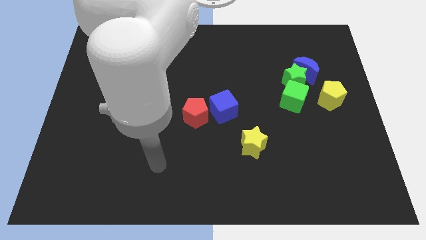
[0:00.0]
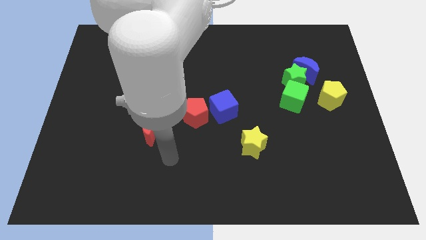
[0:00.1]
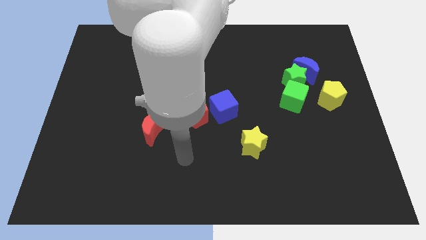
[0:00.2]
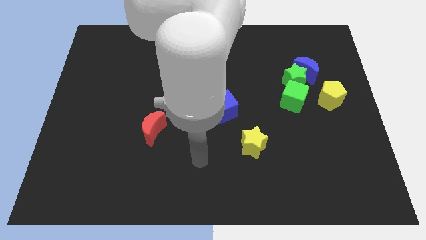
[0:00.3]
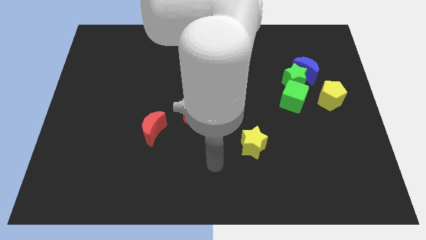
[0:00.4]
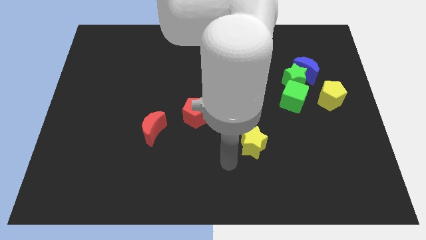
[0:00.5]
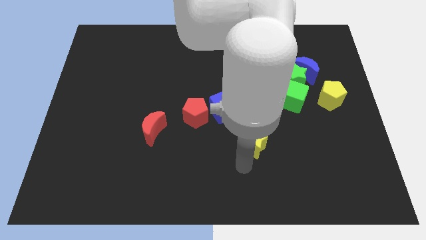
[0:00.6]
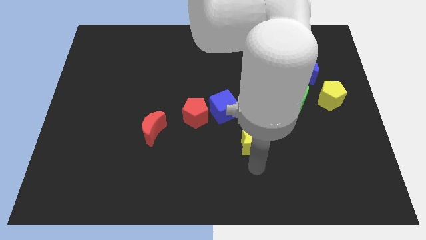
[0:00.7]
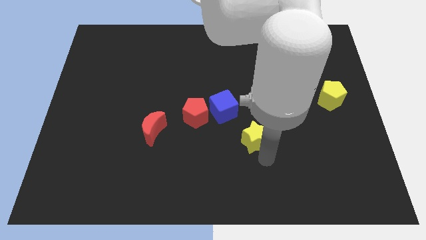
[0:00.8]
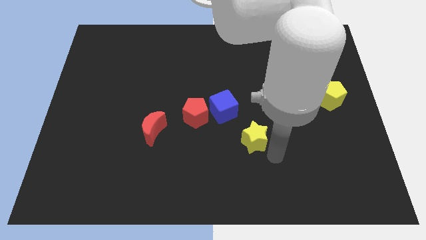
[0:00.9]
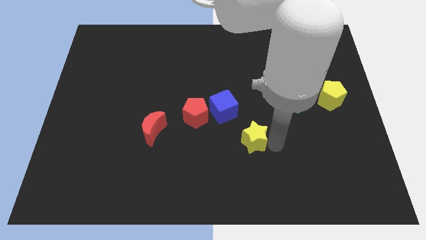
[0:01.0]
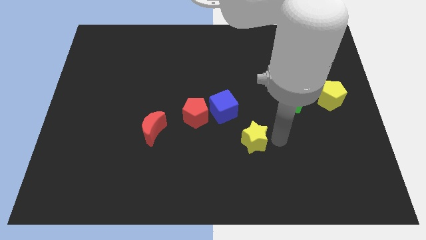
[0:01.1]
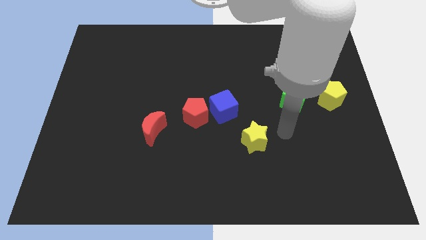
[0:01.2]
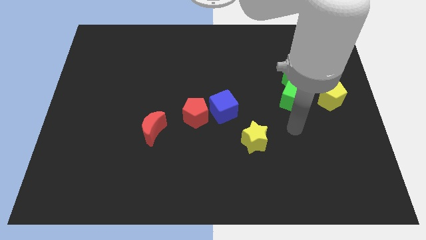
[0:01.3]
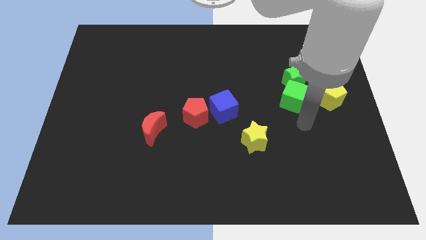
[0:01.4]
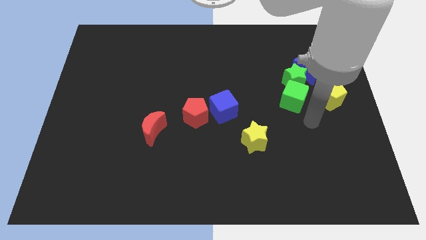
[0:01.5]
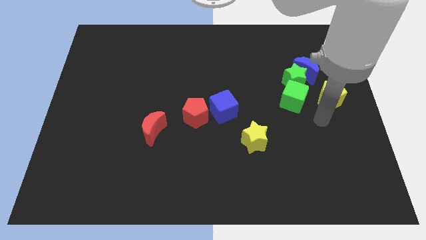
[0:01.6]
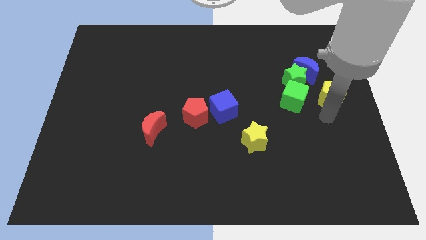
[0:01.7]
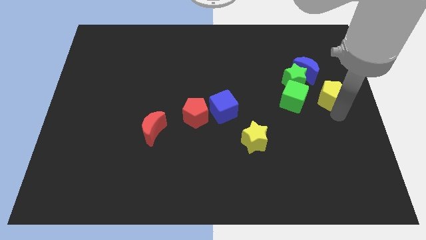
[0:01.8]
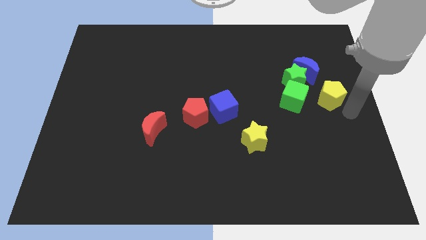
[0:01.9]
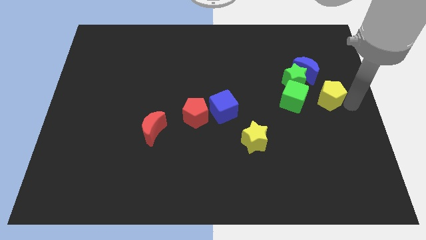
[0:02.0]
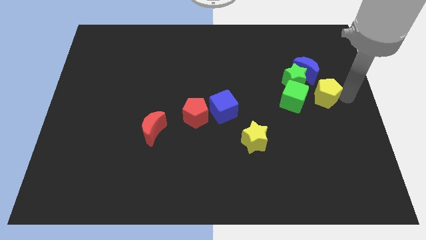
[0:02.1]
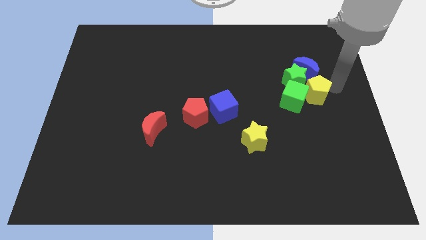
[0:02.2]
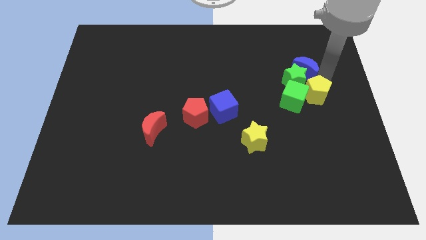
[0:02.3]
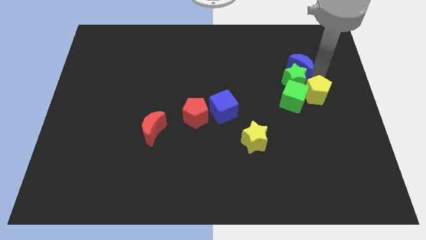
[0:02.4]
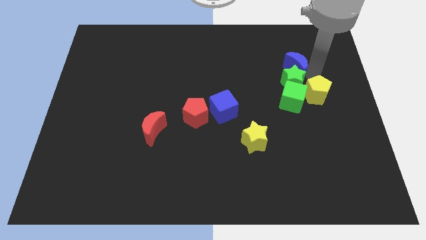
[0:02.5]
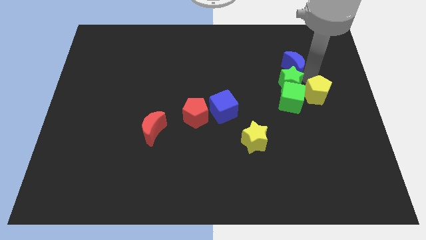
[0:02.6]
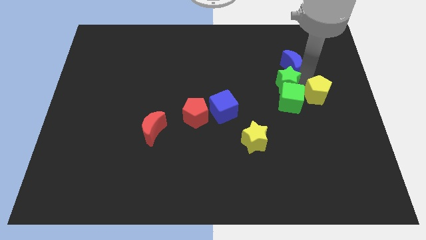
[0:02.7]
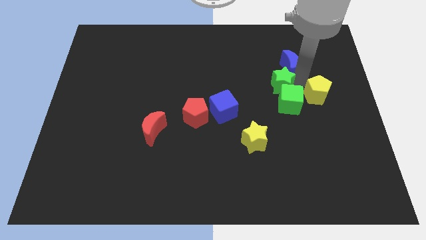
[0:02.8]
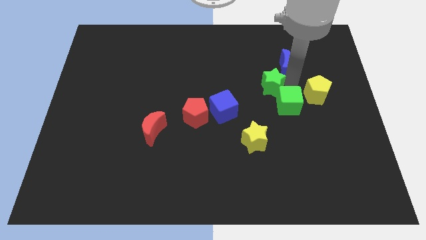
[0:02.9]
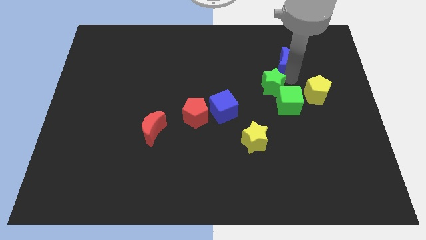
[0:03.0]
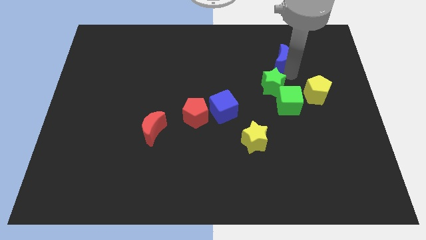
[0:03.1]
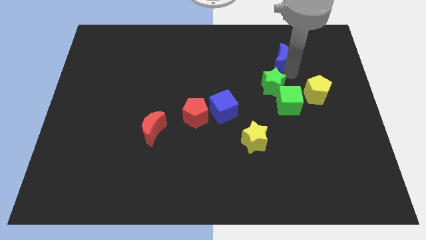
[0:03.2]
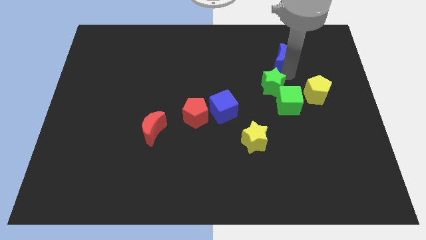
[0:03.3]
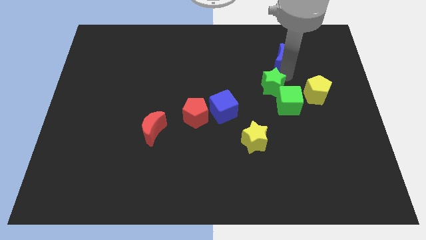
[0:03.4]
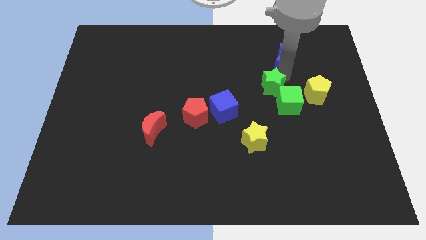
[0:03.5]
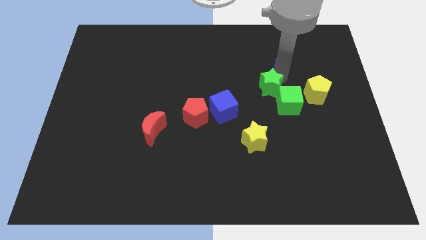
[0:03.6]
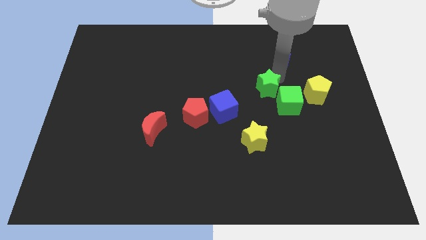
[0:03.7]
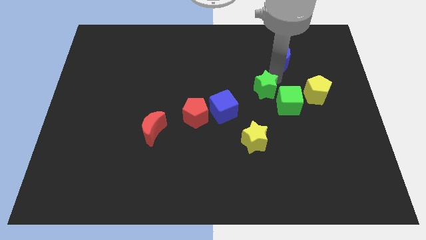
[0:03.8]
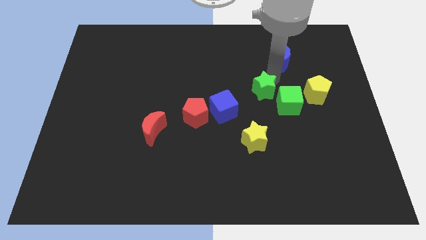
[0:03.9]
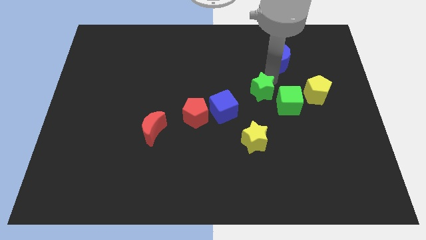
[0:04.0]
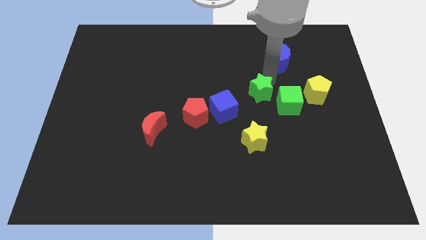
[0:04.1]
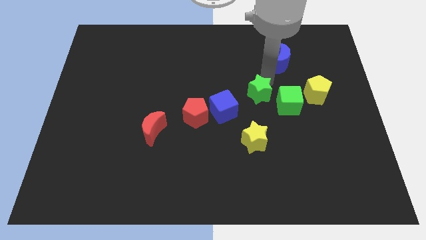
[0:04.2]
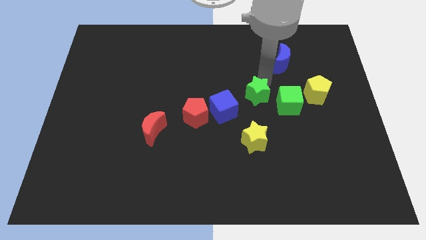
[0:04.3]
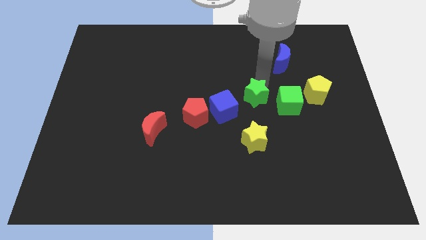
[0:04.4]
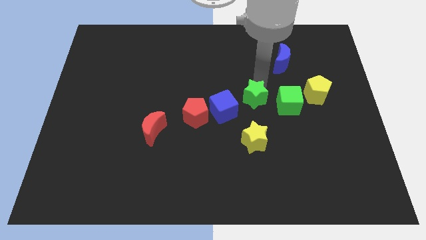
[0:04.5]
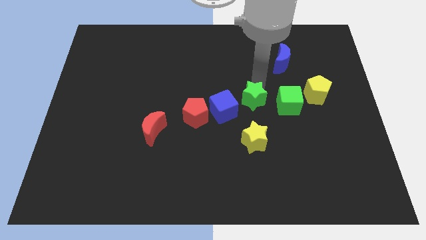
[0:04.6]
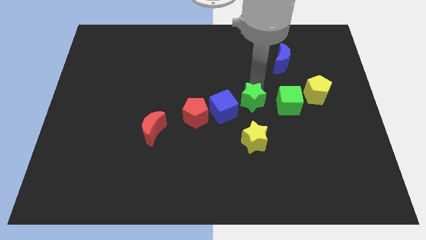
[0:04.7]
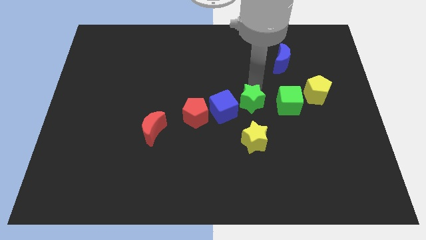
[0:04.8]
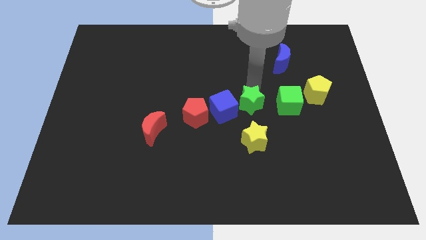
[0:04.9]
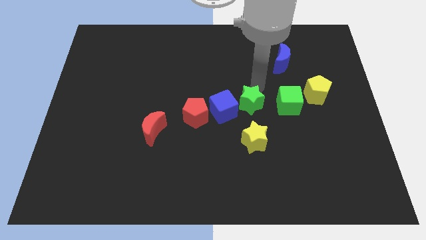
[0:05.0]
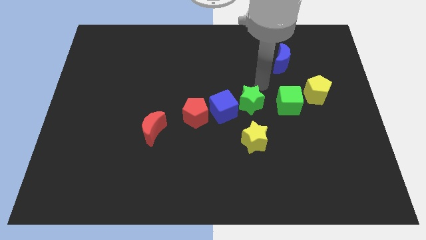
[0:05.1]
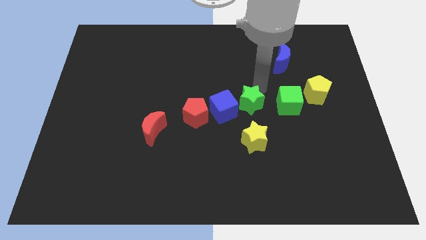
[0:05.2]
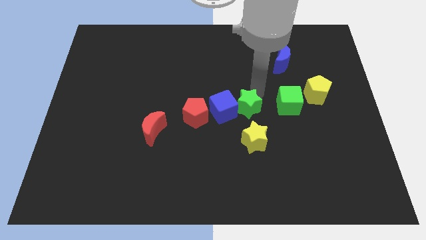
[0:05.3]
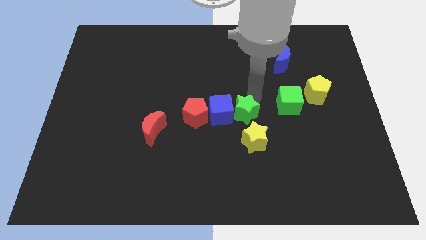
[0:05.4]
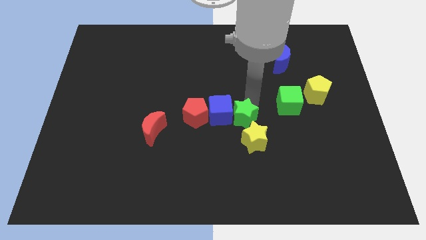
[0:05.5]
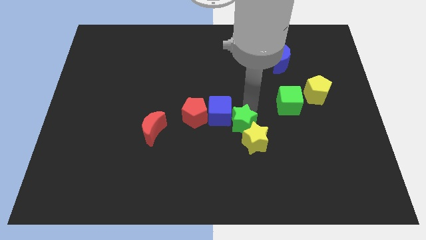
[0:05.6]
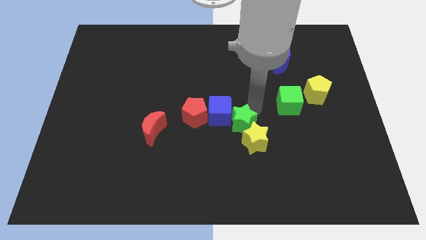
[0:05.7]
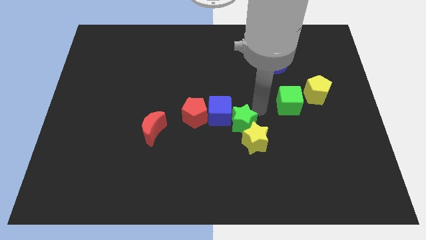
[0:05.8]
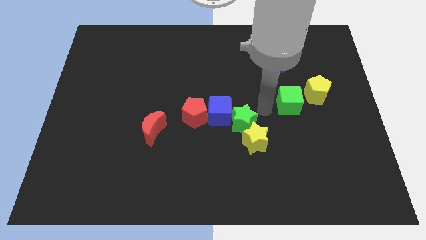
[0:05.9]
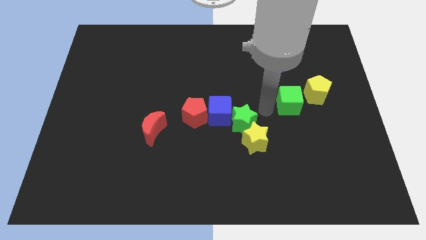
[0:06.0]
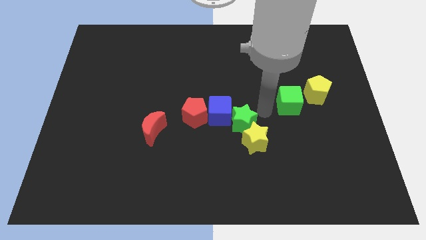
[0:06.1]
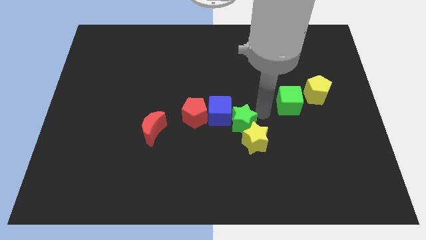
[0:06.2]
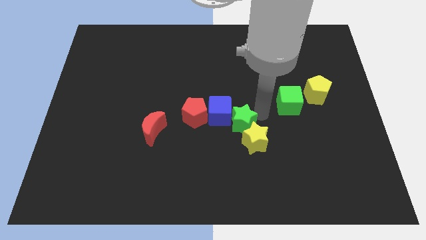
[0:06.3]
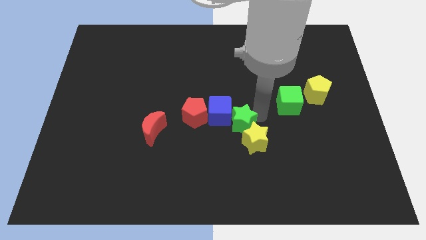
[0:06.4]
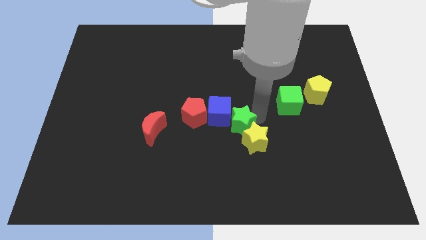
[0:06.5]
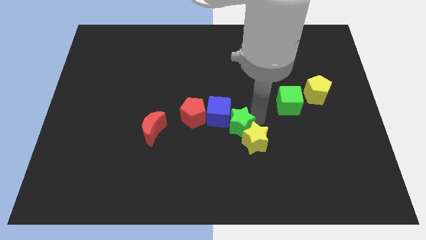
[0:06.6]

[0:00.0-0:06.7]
push the green star just left of the yellow star
